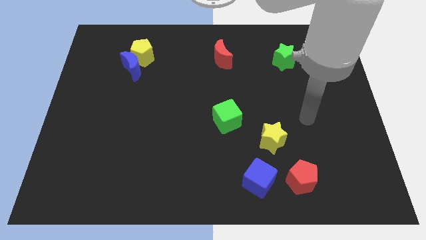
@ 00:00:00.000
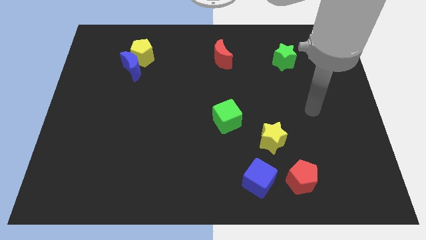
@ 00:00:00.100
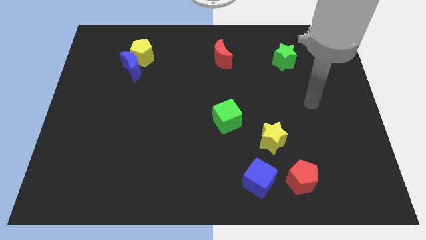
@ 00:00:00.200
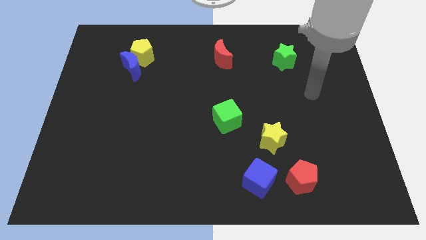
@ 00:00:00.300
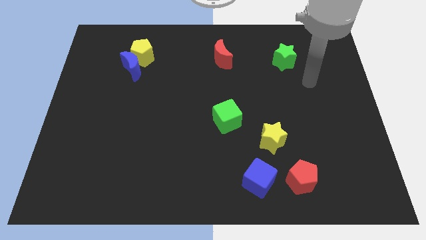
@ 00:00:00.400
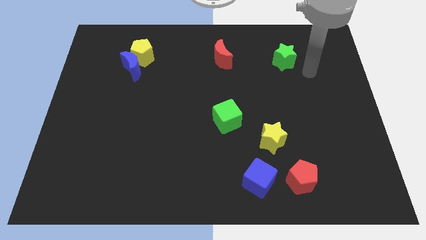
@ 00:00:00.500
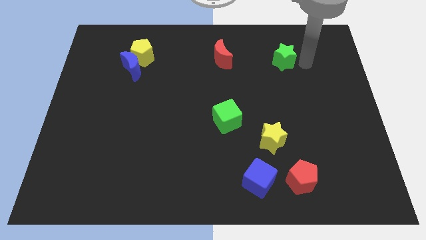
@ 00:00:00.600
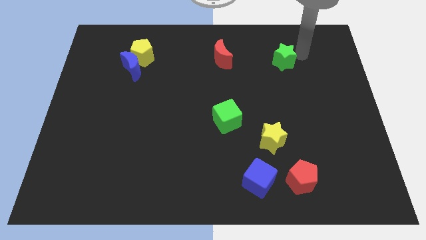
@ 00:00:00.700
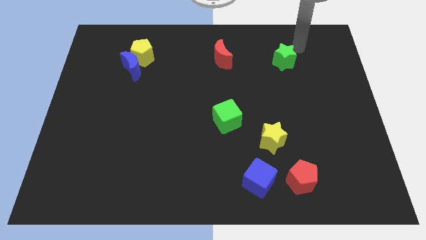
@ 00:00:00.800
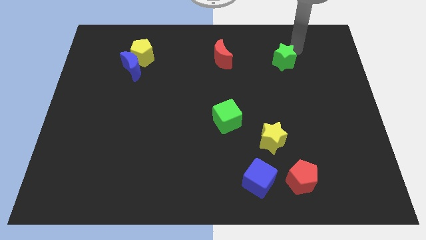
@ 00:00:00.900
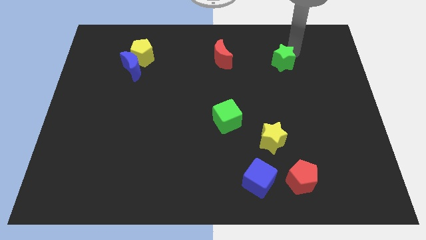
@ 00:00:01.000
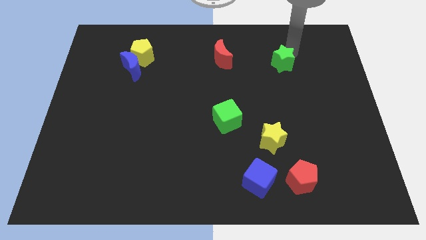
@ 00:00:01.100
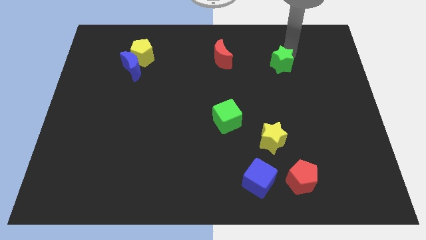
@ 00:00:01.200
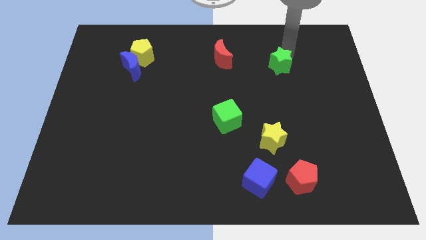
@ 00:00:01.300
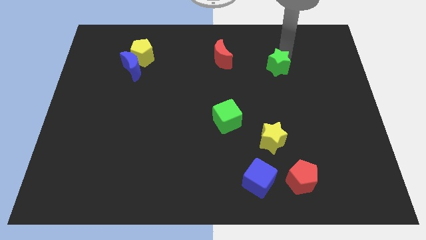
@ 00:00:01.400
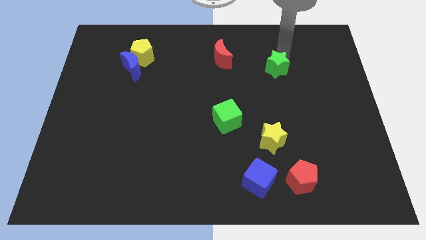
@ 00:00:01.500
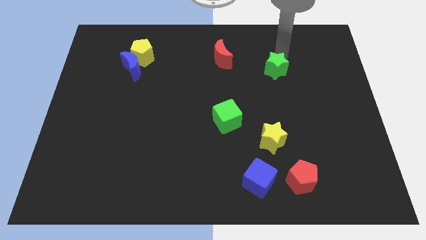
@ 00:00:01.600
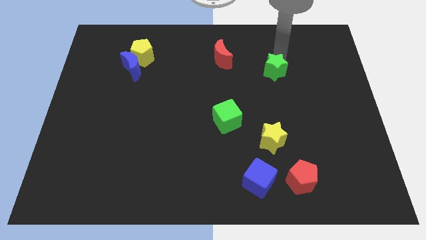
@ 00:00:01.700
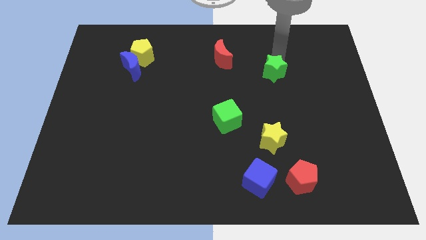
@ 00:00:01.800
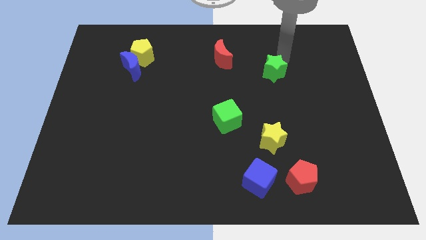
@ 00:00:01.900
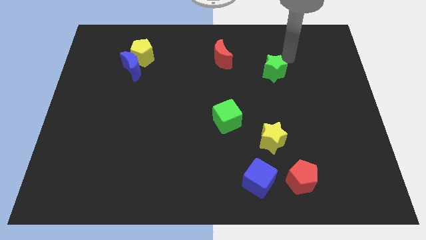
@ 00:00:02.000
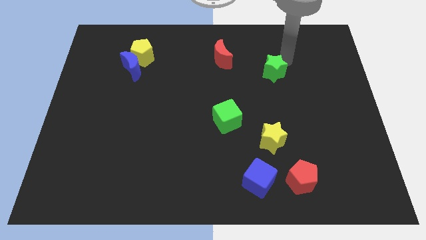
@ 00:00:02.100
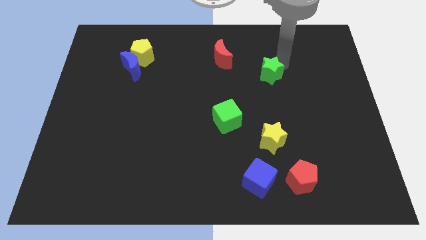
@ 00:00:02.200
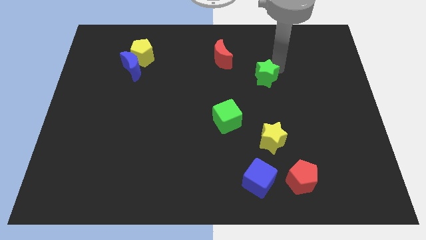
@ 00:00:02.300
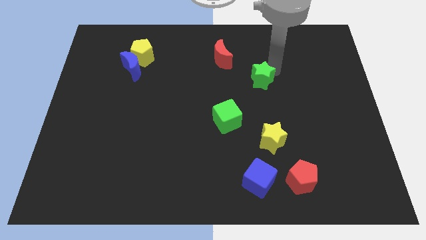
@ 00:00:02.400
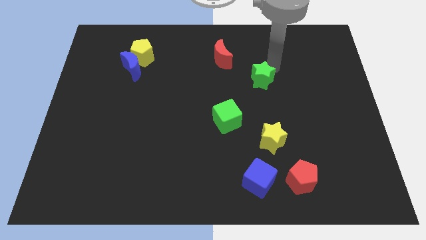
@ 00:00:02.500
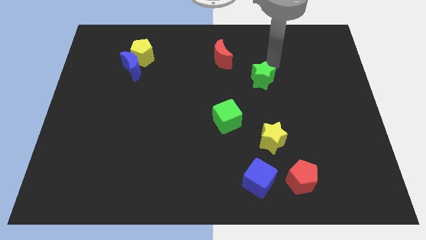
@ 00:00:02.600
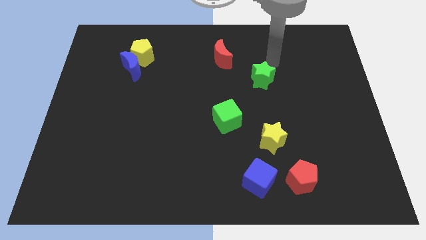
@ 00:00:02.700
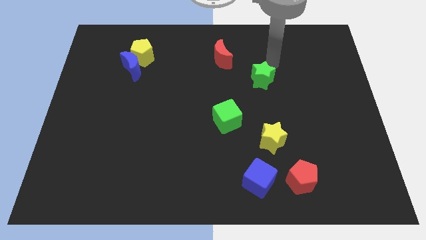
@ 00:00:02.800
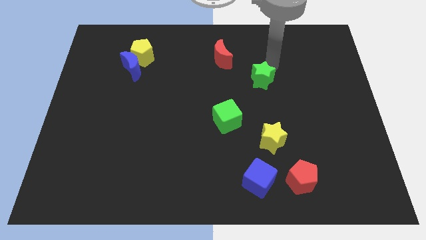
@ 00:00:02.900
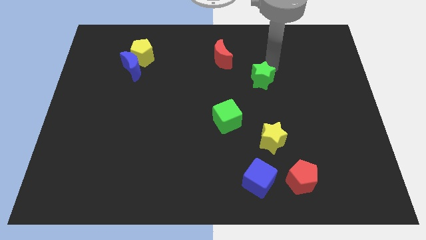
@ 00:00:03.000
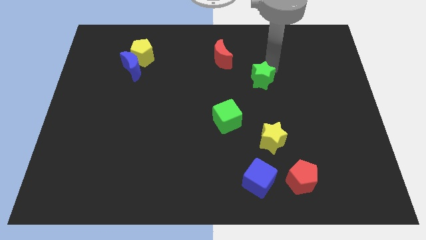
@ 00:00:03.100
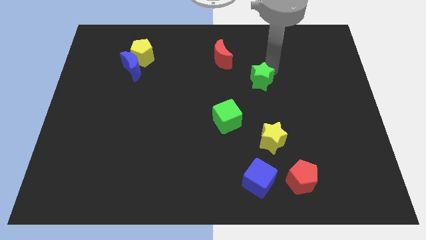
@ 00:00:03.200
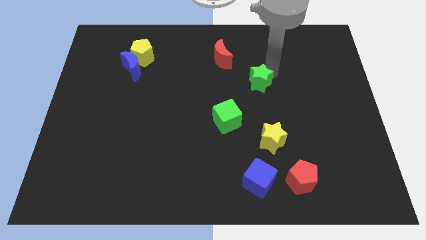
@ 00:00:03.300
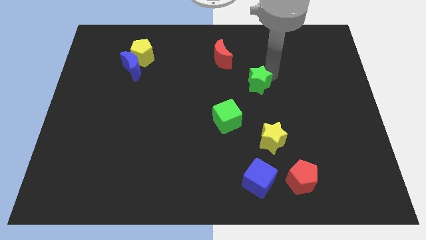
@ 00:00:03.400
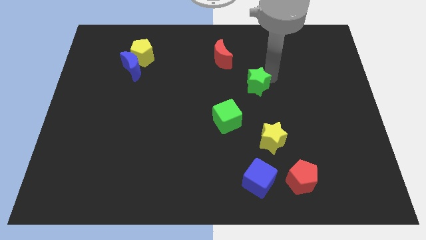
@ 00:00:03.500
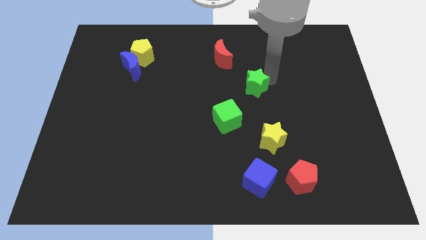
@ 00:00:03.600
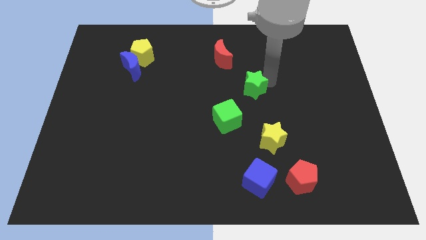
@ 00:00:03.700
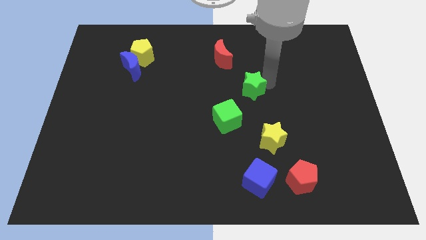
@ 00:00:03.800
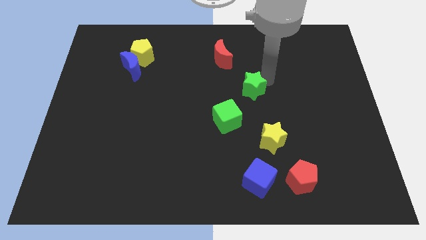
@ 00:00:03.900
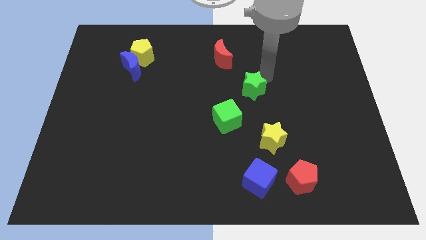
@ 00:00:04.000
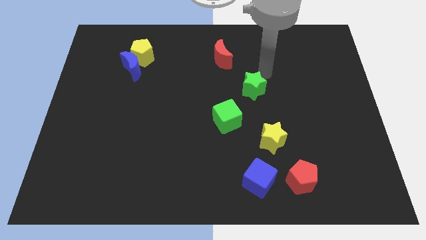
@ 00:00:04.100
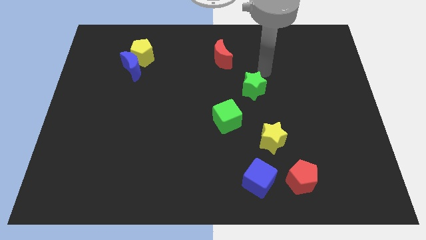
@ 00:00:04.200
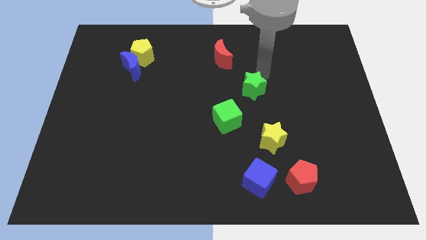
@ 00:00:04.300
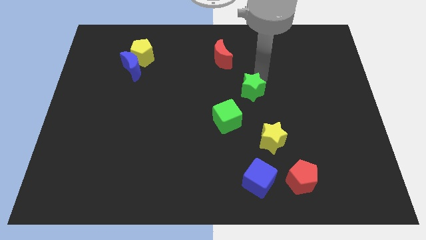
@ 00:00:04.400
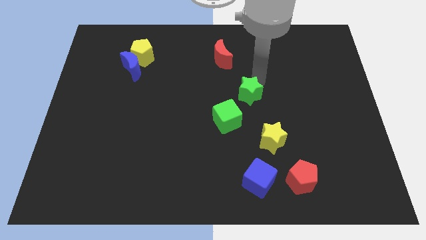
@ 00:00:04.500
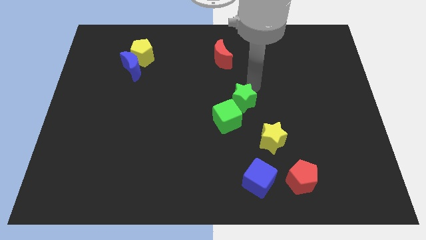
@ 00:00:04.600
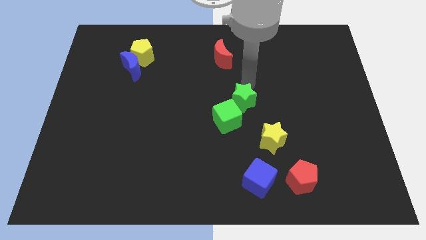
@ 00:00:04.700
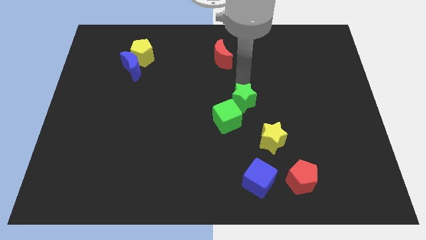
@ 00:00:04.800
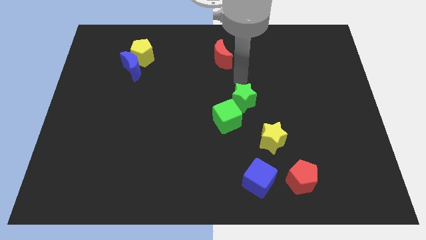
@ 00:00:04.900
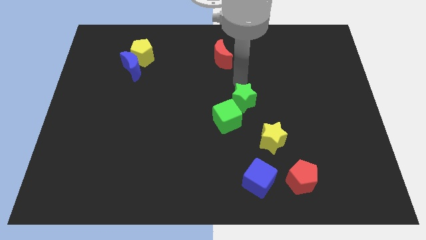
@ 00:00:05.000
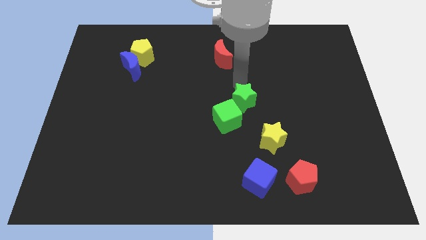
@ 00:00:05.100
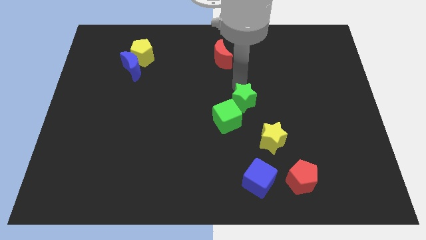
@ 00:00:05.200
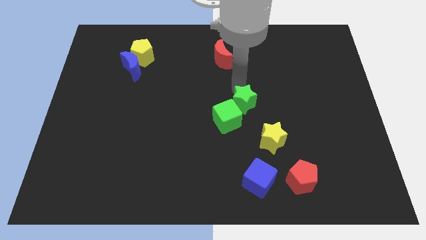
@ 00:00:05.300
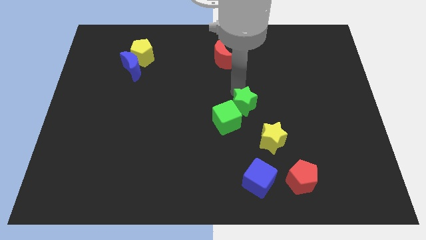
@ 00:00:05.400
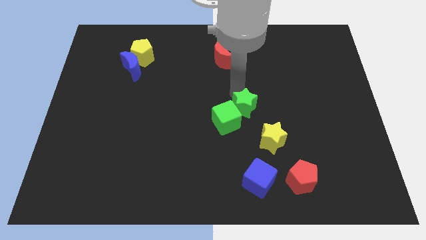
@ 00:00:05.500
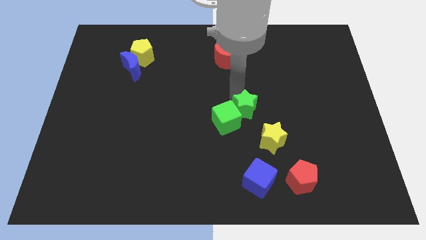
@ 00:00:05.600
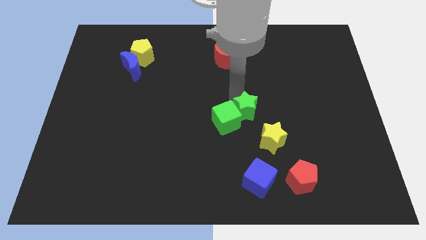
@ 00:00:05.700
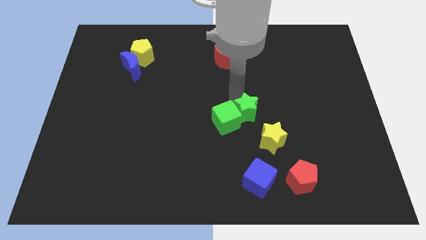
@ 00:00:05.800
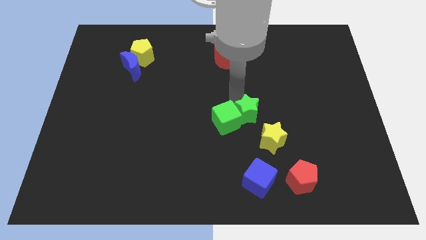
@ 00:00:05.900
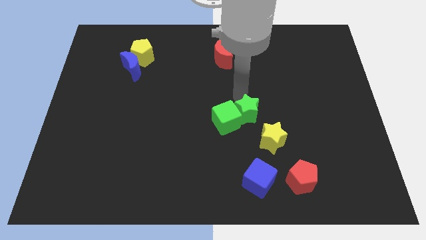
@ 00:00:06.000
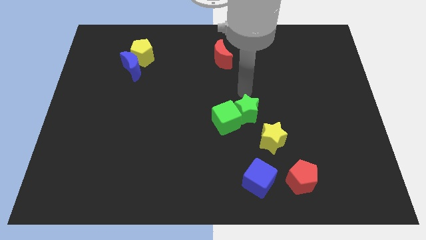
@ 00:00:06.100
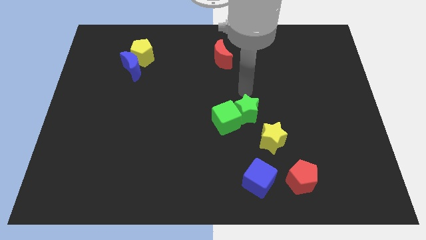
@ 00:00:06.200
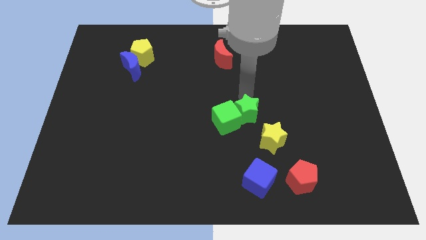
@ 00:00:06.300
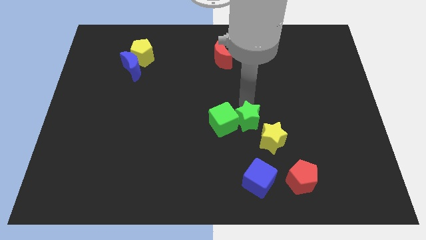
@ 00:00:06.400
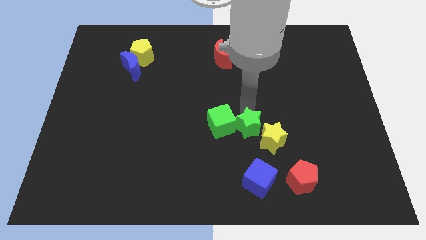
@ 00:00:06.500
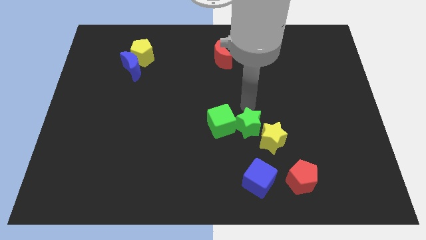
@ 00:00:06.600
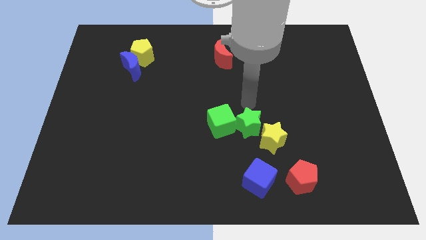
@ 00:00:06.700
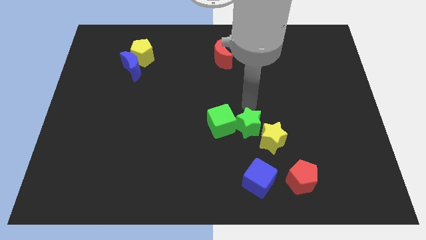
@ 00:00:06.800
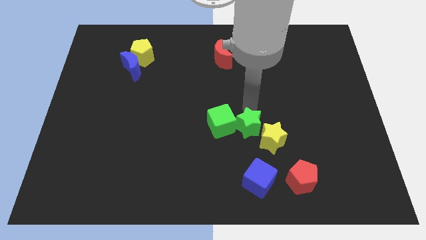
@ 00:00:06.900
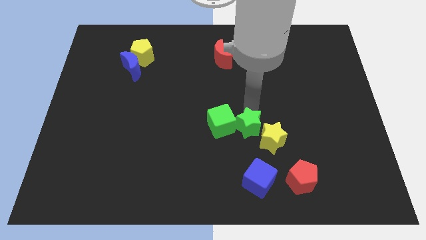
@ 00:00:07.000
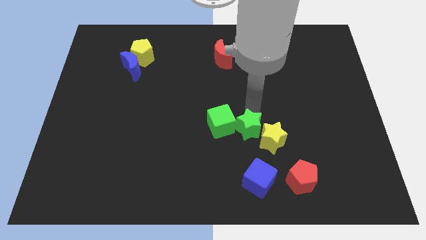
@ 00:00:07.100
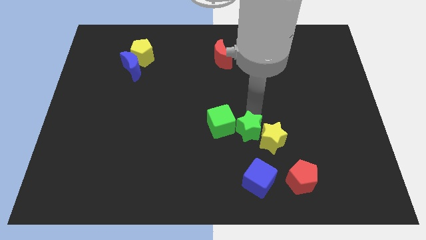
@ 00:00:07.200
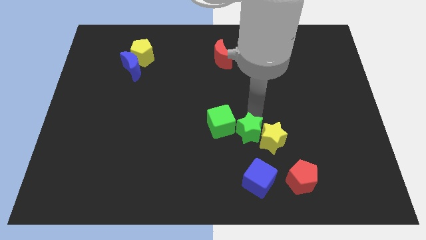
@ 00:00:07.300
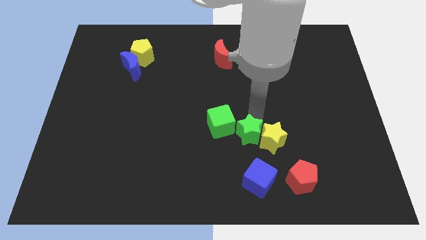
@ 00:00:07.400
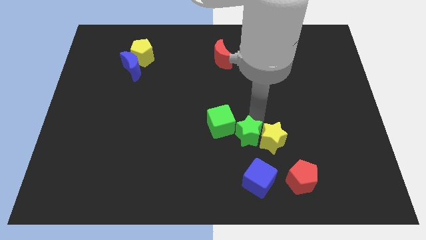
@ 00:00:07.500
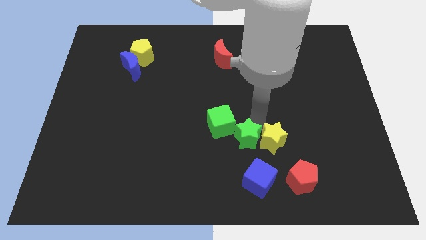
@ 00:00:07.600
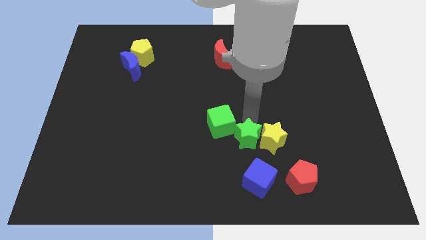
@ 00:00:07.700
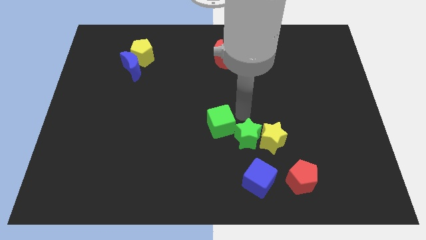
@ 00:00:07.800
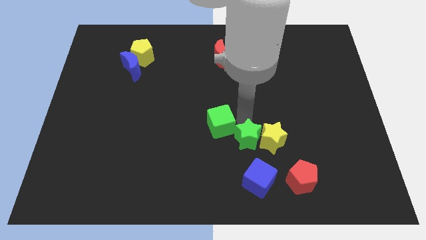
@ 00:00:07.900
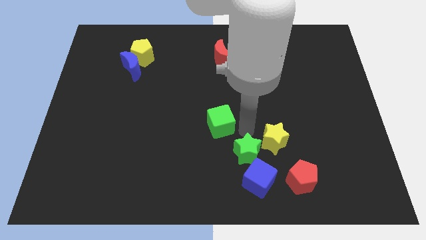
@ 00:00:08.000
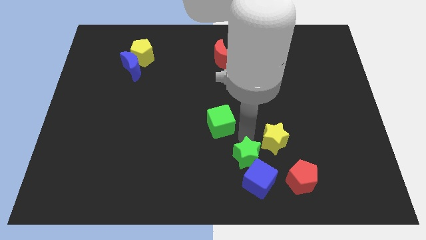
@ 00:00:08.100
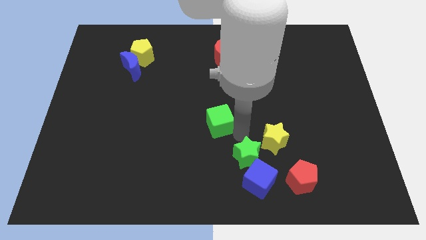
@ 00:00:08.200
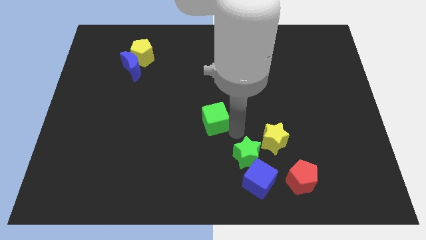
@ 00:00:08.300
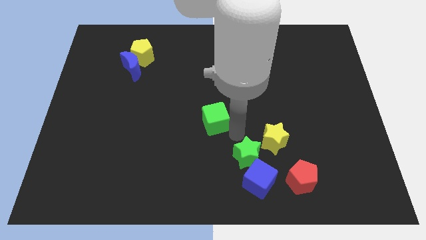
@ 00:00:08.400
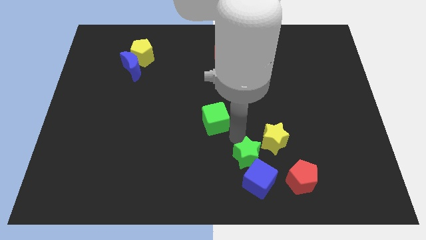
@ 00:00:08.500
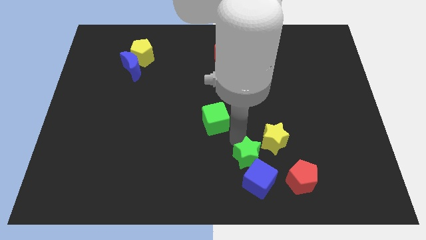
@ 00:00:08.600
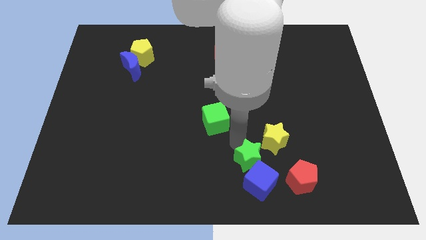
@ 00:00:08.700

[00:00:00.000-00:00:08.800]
push the green star to the blue cube
